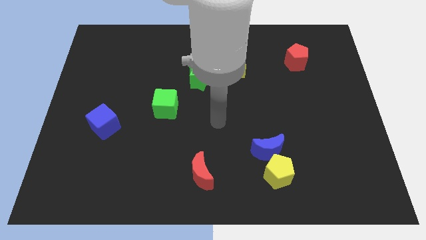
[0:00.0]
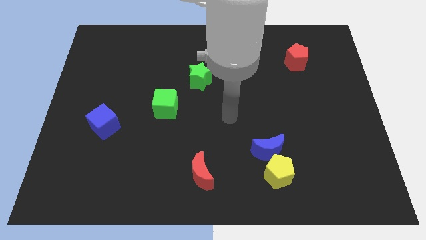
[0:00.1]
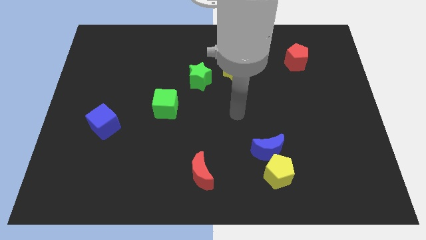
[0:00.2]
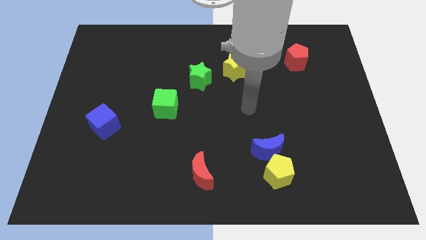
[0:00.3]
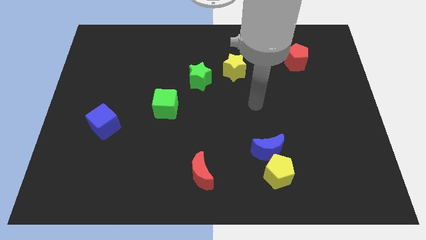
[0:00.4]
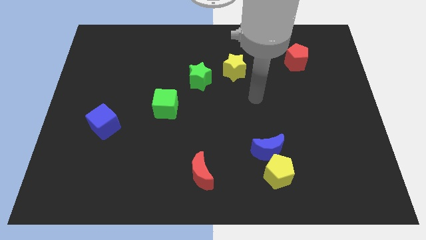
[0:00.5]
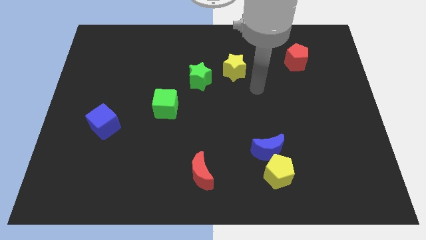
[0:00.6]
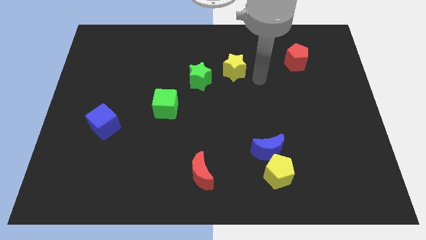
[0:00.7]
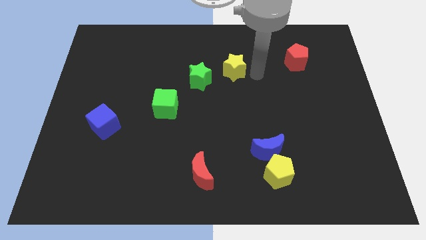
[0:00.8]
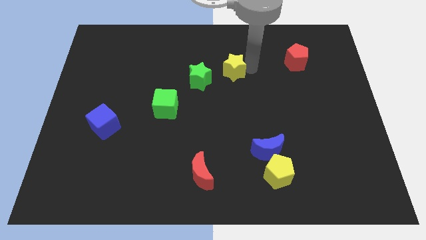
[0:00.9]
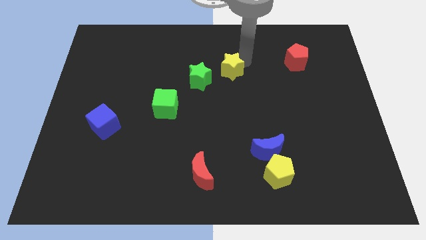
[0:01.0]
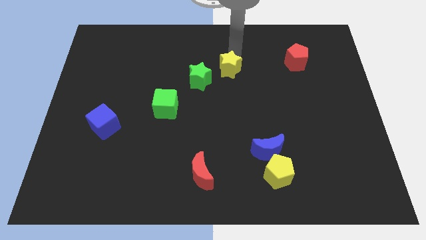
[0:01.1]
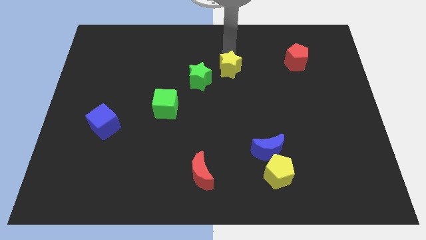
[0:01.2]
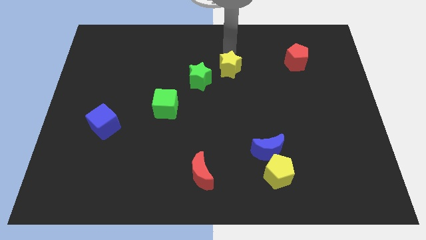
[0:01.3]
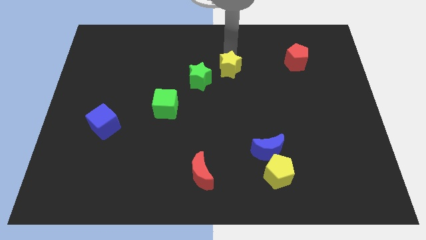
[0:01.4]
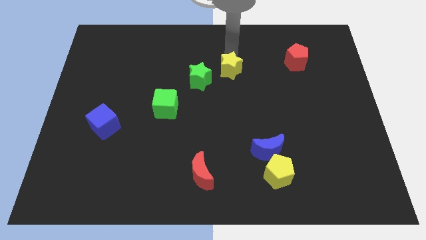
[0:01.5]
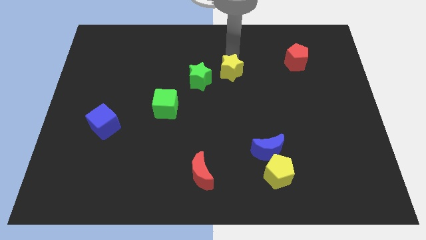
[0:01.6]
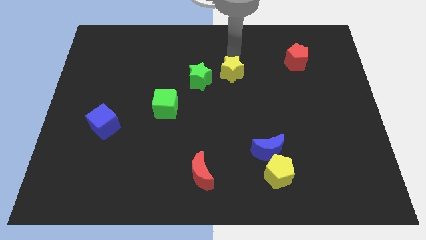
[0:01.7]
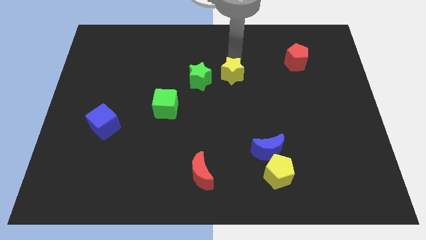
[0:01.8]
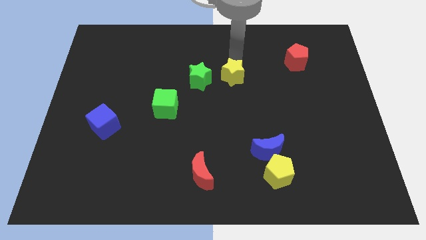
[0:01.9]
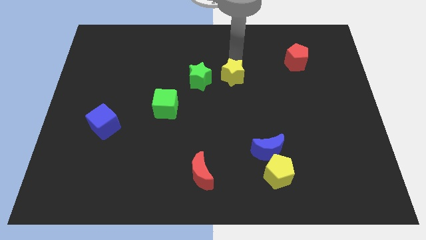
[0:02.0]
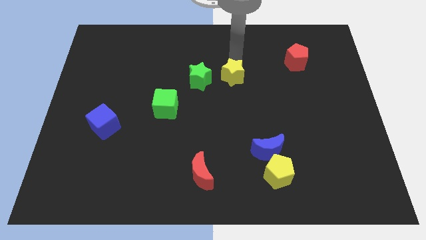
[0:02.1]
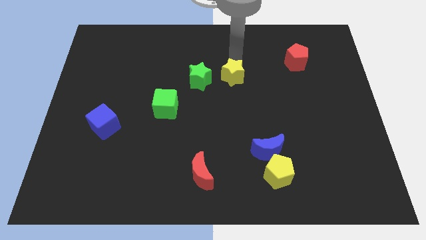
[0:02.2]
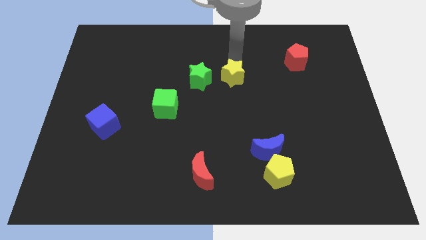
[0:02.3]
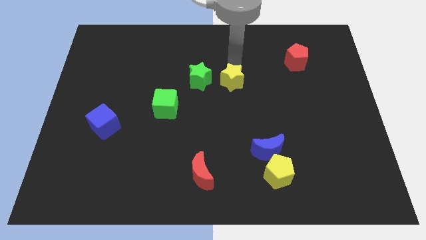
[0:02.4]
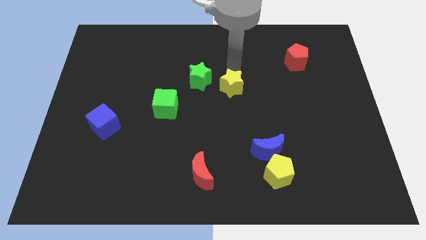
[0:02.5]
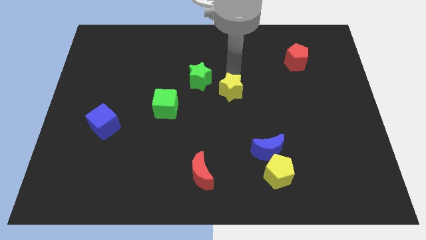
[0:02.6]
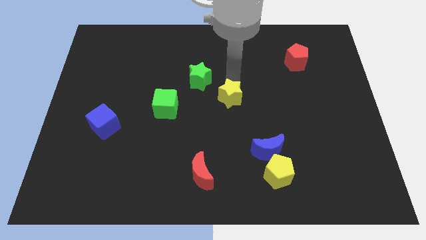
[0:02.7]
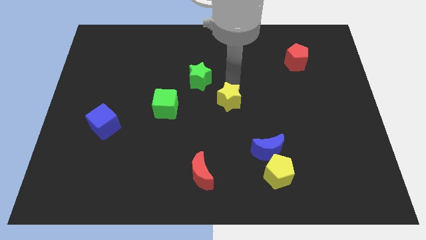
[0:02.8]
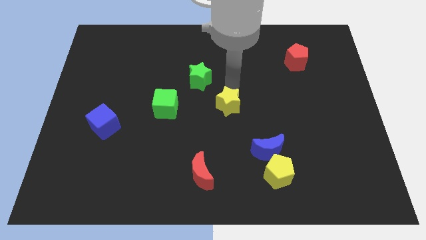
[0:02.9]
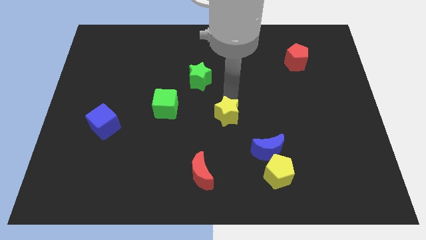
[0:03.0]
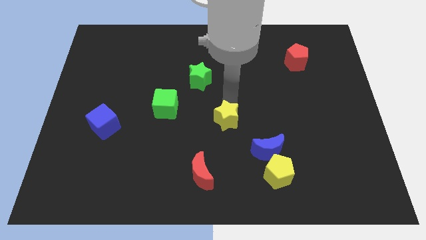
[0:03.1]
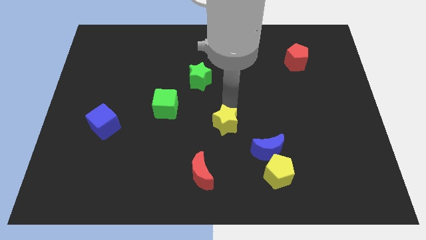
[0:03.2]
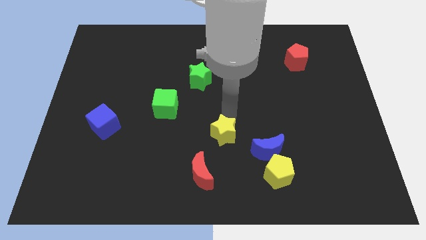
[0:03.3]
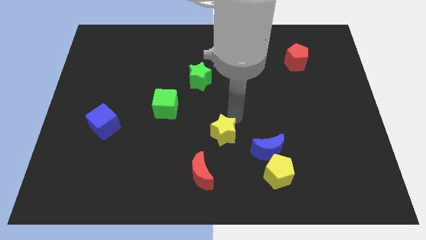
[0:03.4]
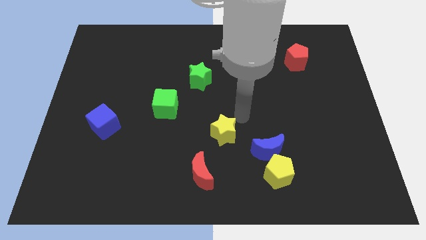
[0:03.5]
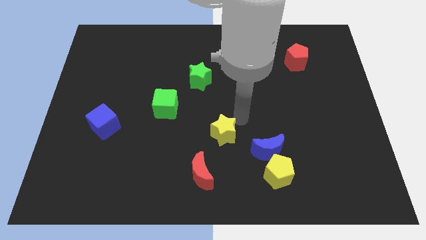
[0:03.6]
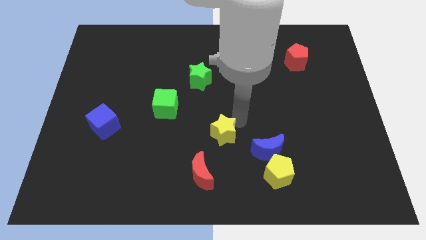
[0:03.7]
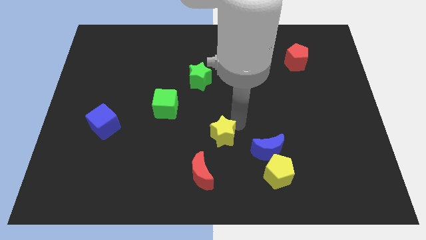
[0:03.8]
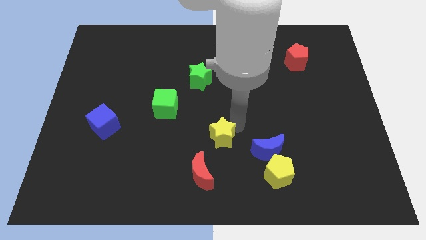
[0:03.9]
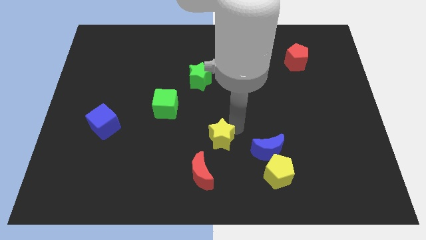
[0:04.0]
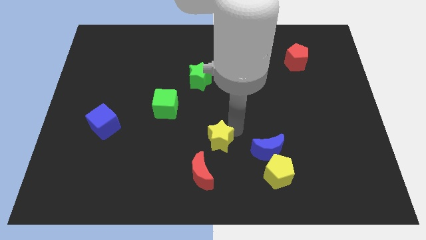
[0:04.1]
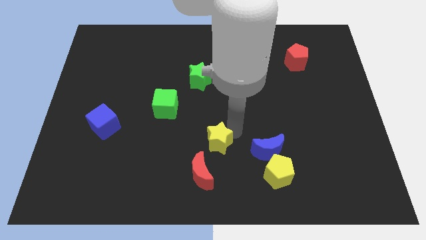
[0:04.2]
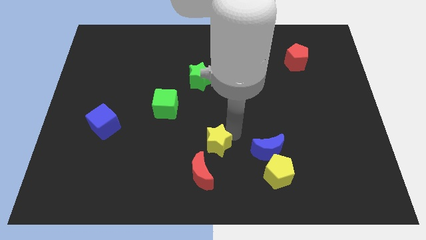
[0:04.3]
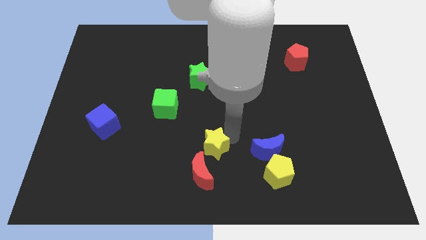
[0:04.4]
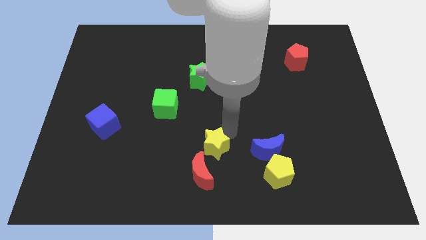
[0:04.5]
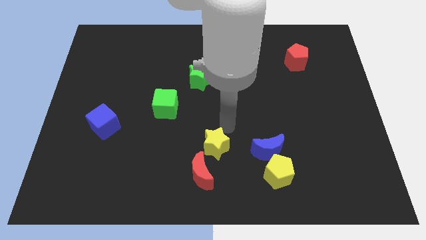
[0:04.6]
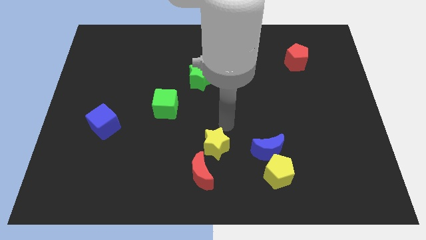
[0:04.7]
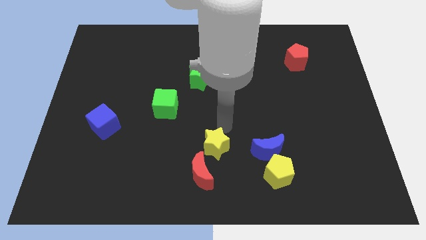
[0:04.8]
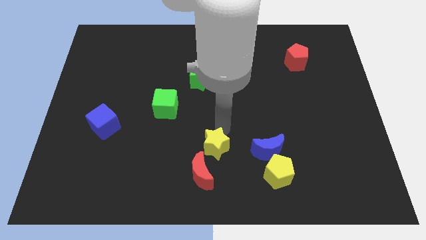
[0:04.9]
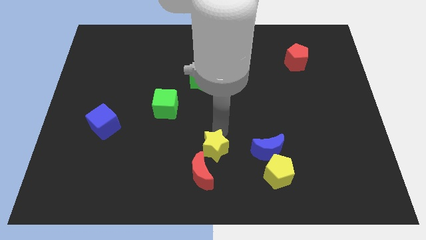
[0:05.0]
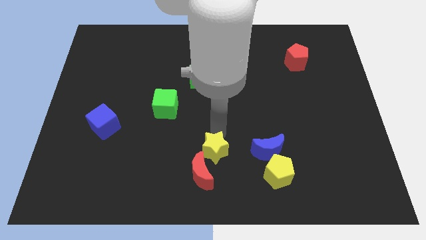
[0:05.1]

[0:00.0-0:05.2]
slide the yellow star next to the red moon

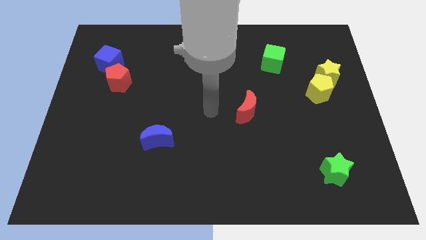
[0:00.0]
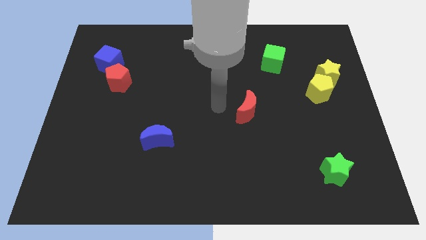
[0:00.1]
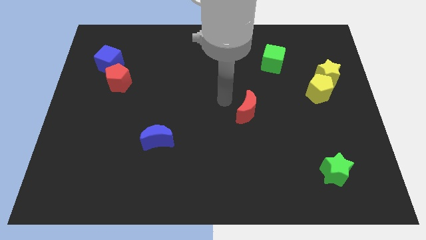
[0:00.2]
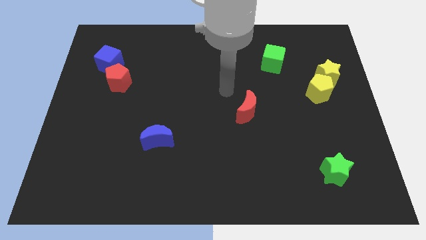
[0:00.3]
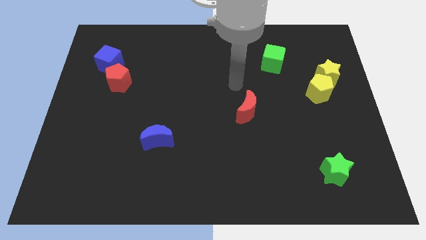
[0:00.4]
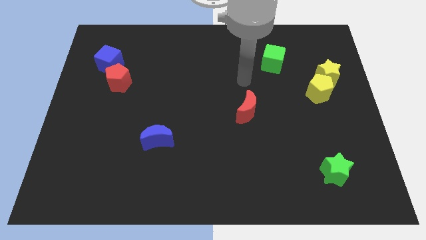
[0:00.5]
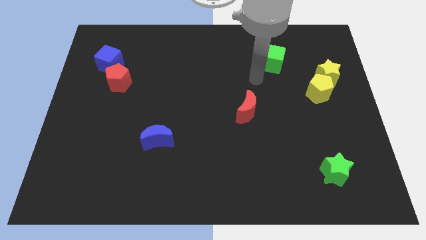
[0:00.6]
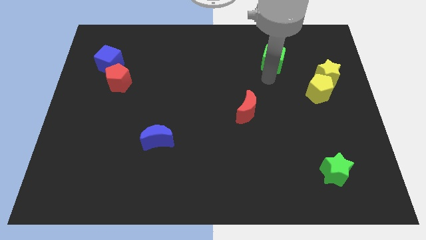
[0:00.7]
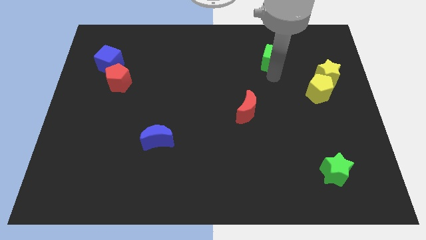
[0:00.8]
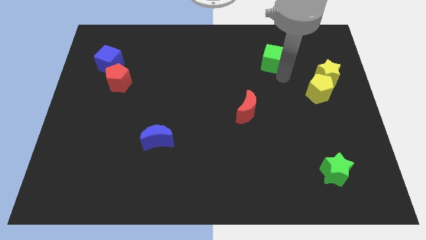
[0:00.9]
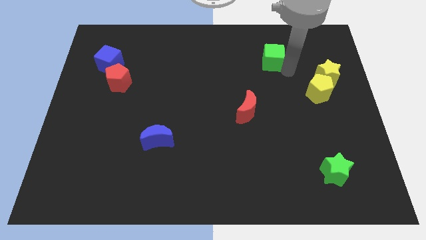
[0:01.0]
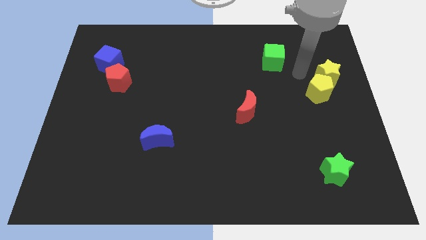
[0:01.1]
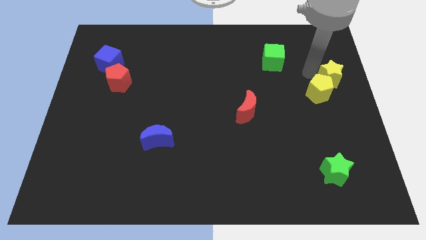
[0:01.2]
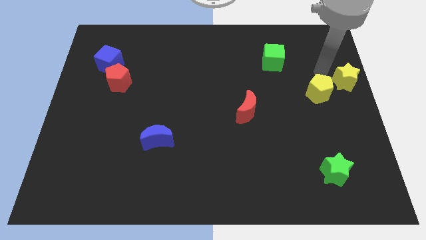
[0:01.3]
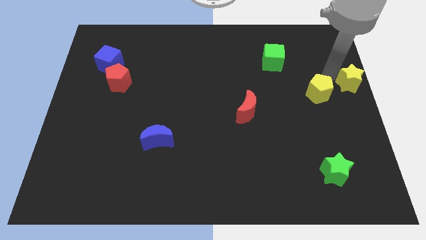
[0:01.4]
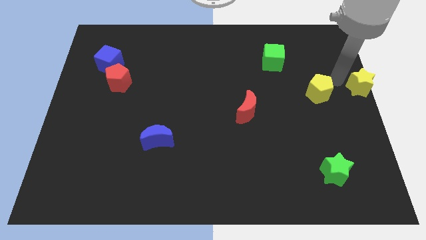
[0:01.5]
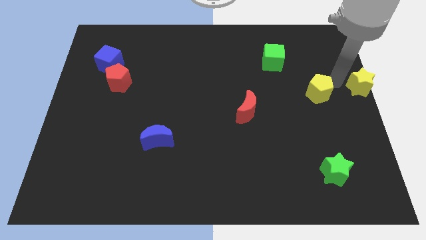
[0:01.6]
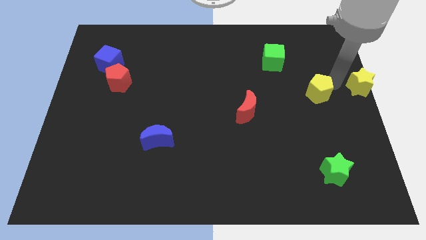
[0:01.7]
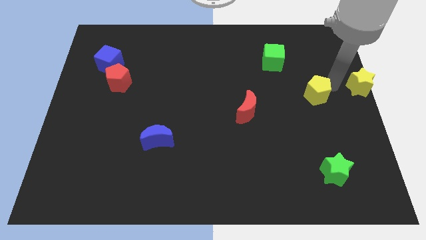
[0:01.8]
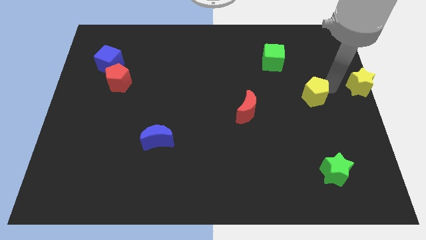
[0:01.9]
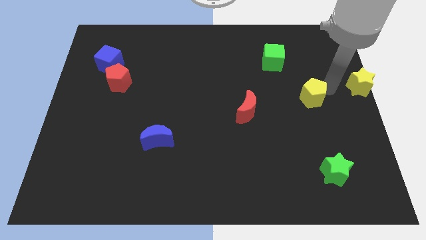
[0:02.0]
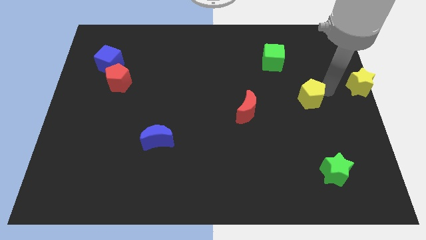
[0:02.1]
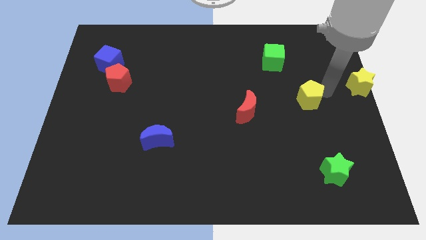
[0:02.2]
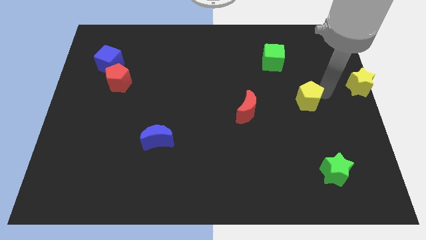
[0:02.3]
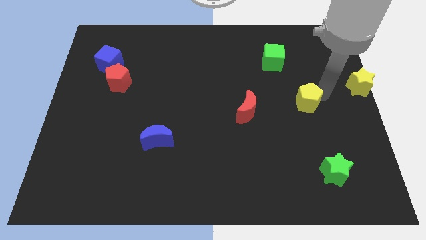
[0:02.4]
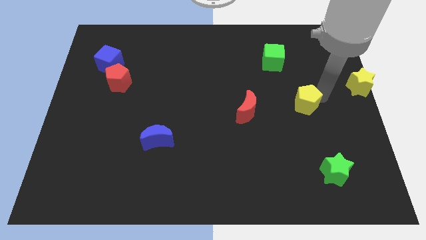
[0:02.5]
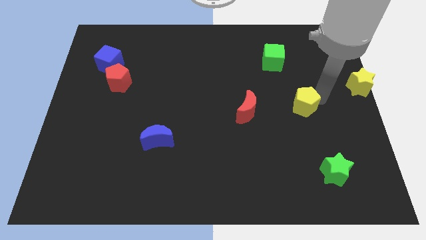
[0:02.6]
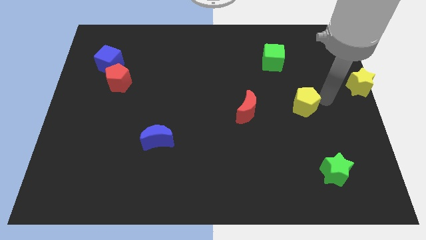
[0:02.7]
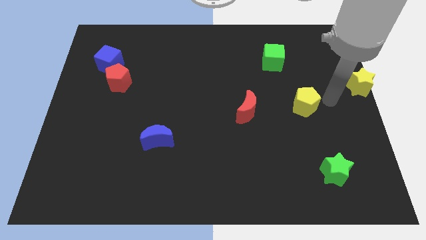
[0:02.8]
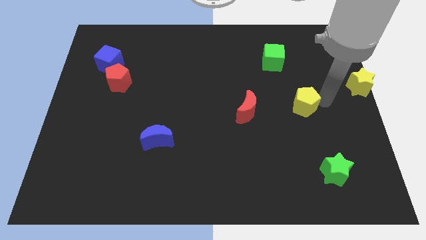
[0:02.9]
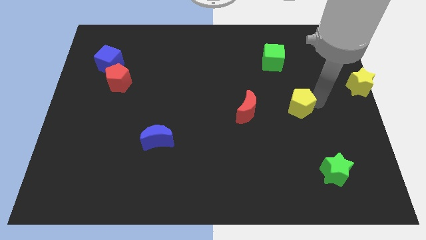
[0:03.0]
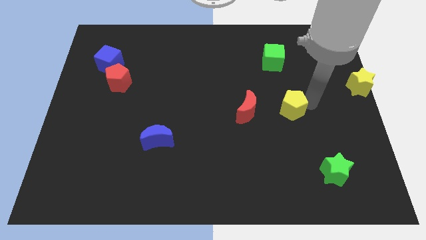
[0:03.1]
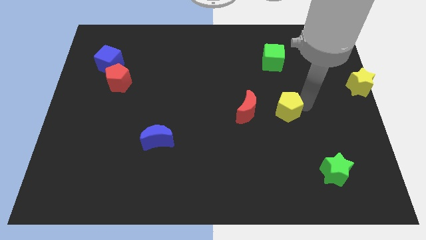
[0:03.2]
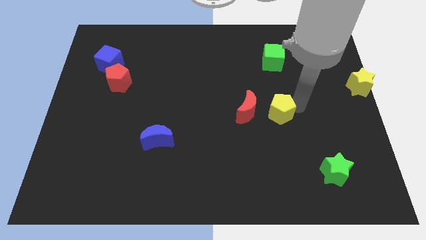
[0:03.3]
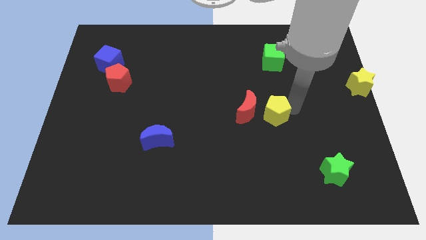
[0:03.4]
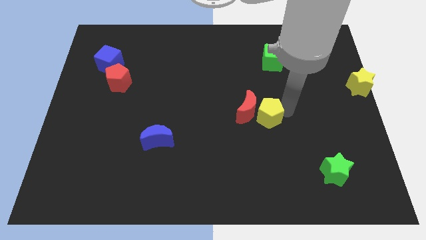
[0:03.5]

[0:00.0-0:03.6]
slide the yellow pentagon to the red moon
